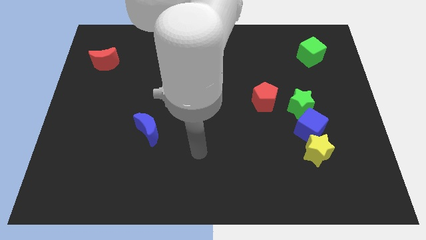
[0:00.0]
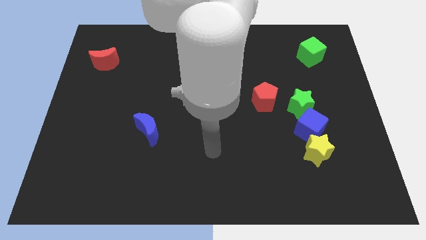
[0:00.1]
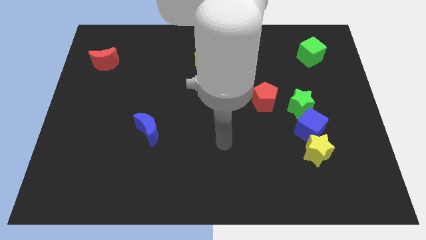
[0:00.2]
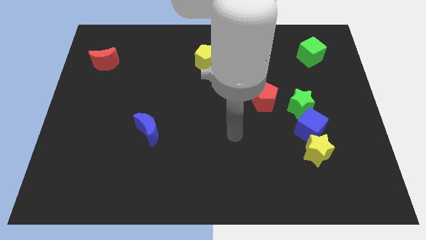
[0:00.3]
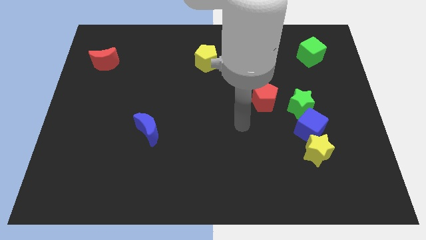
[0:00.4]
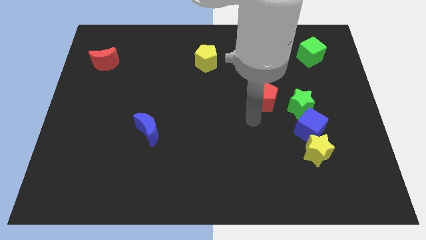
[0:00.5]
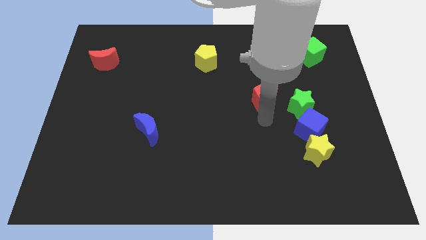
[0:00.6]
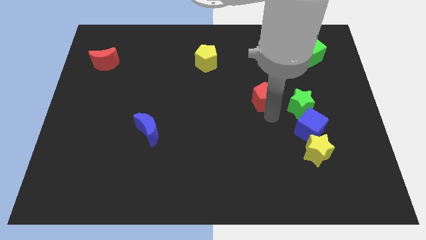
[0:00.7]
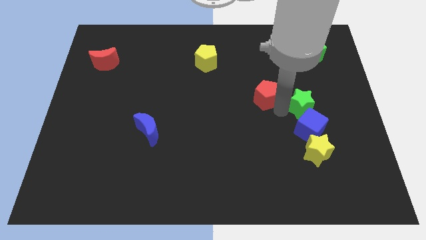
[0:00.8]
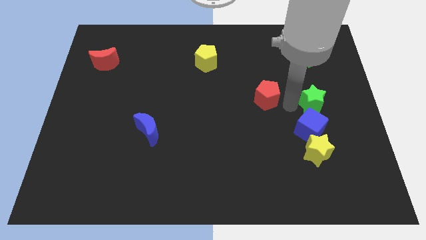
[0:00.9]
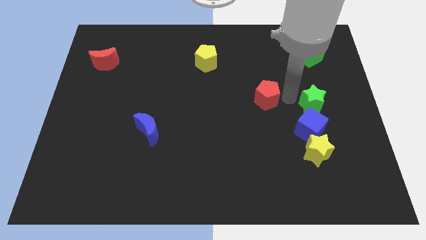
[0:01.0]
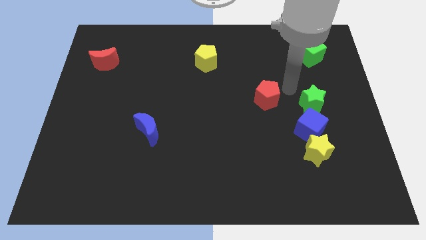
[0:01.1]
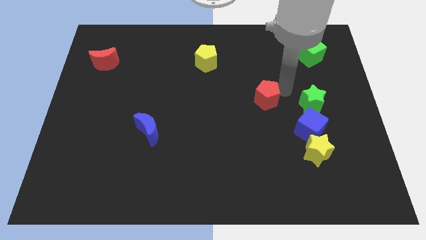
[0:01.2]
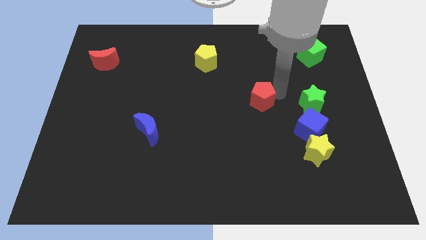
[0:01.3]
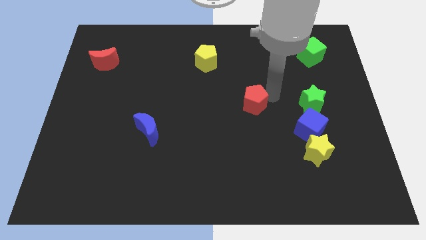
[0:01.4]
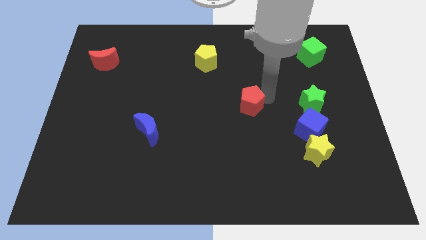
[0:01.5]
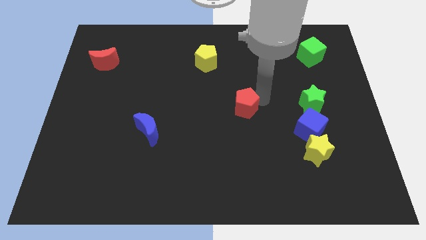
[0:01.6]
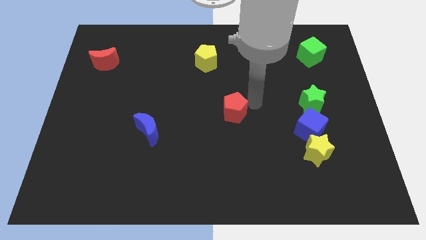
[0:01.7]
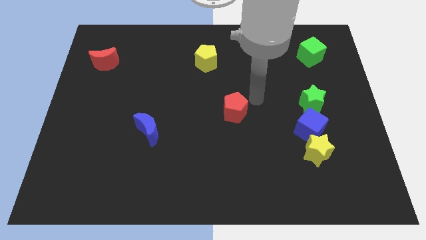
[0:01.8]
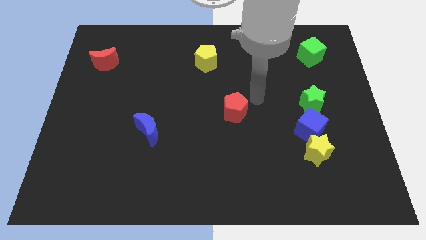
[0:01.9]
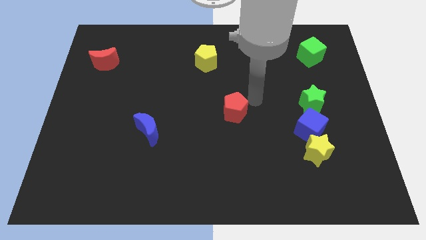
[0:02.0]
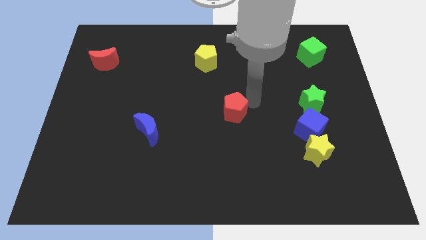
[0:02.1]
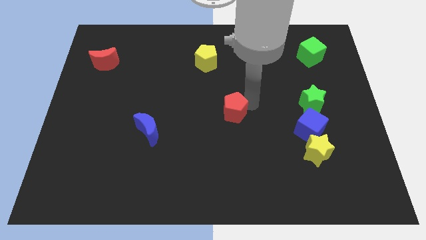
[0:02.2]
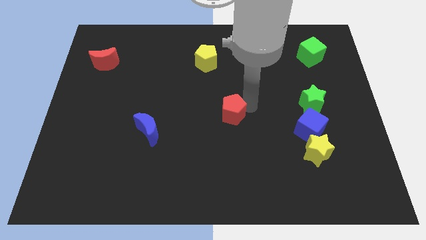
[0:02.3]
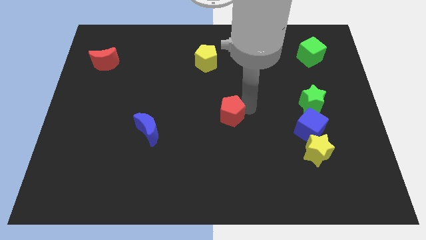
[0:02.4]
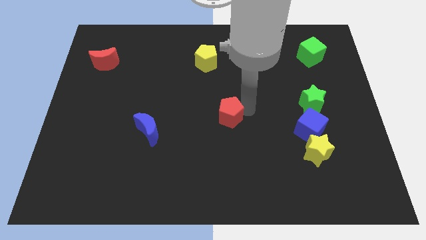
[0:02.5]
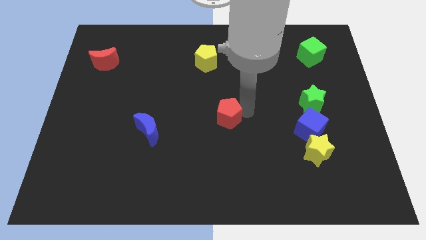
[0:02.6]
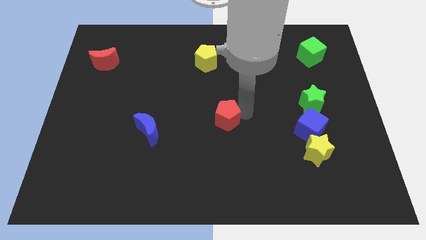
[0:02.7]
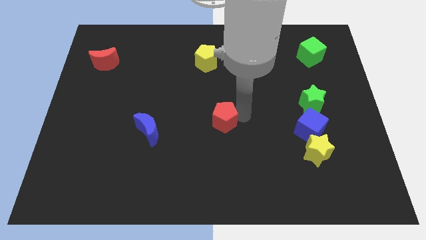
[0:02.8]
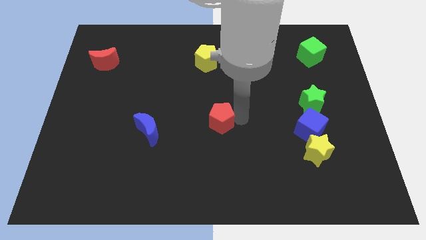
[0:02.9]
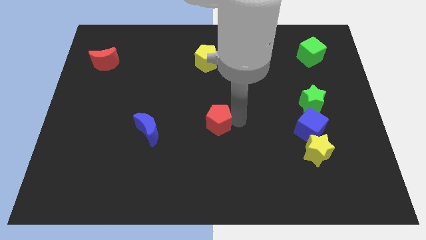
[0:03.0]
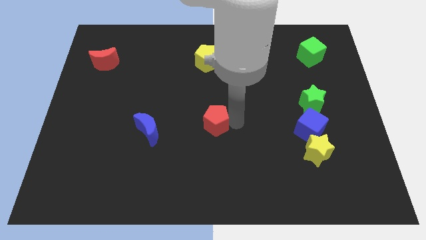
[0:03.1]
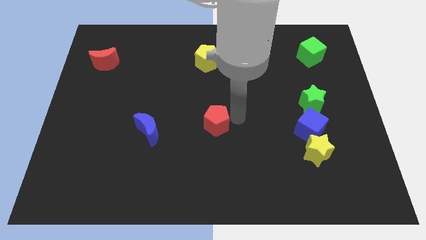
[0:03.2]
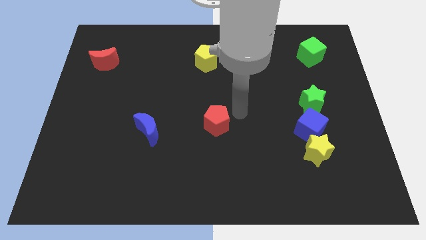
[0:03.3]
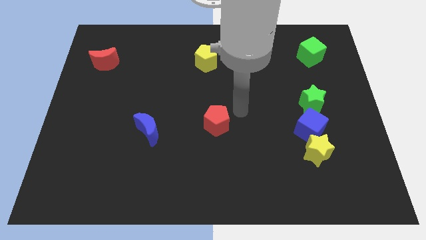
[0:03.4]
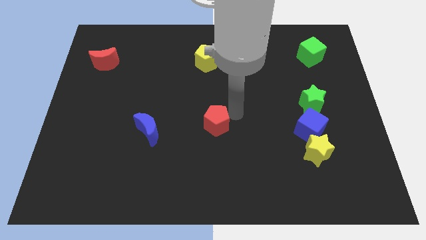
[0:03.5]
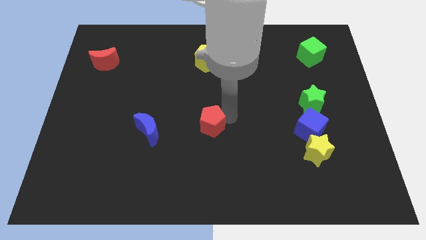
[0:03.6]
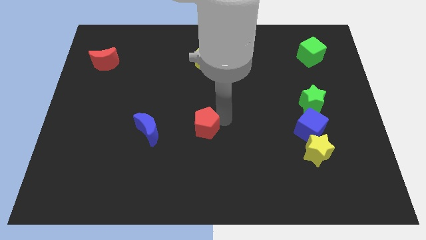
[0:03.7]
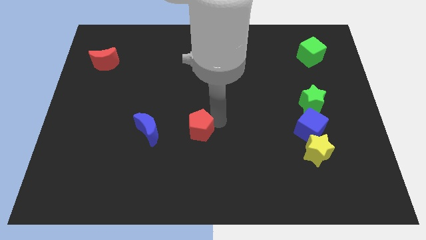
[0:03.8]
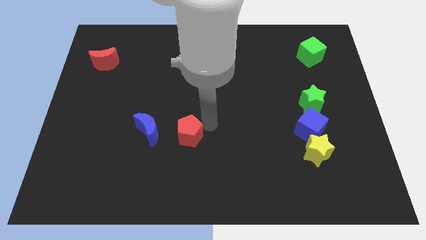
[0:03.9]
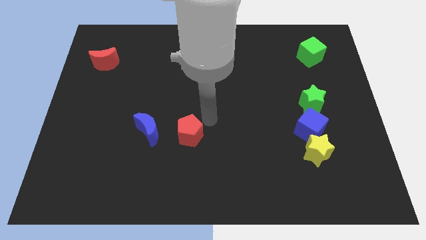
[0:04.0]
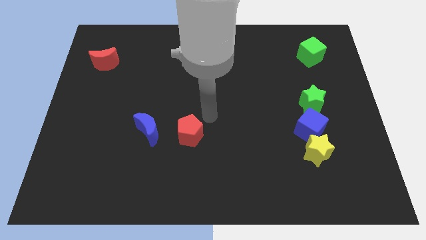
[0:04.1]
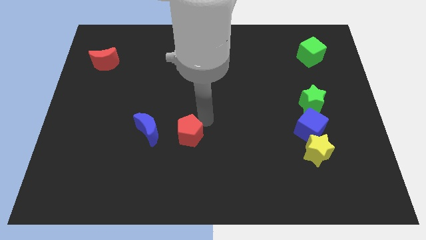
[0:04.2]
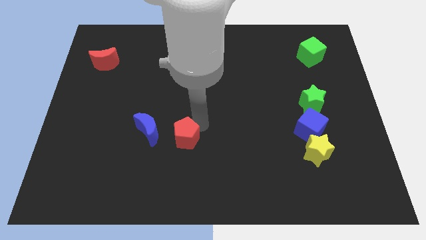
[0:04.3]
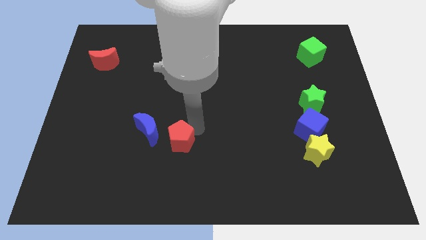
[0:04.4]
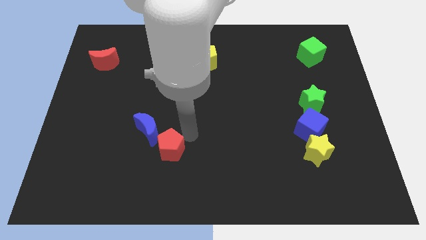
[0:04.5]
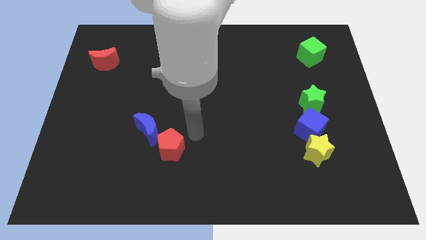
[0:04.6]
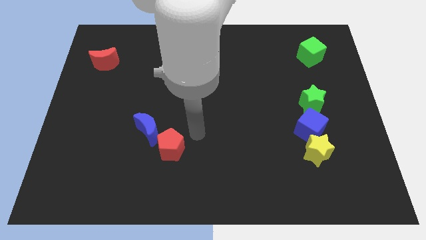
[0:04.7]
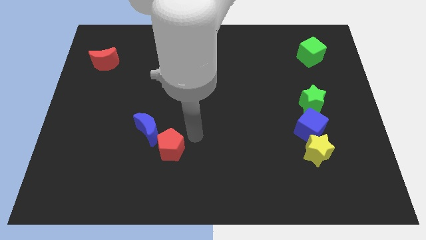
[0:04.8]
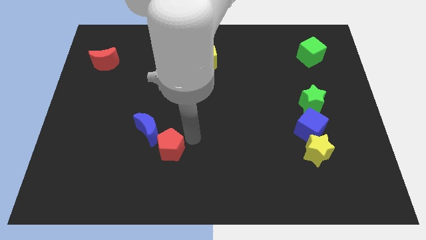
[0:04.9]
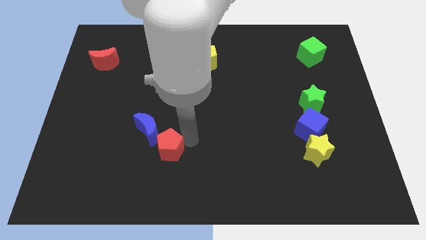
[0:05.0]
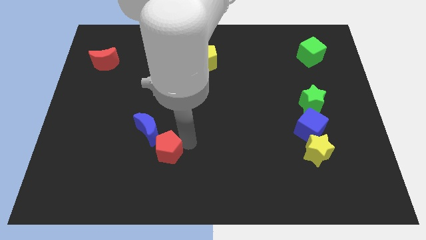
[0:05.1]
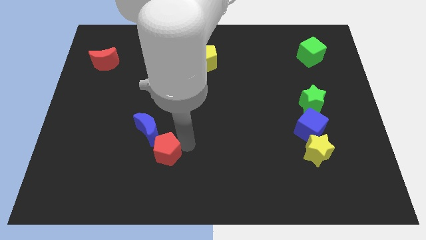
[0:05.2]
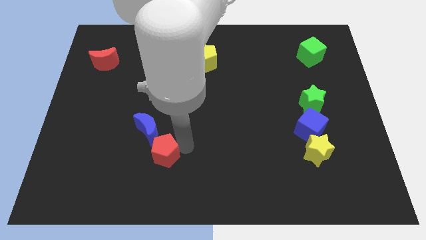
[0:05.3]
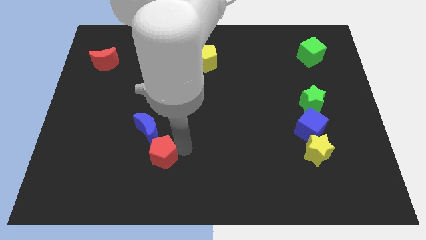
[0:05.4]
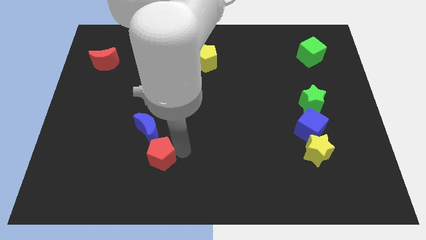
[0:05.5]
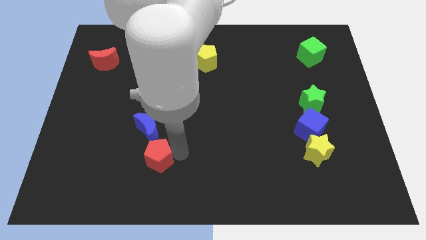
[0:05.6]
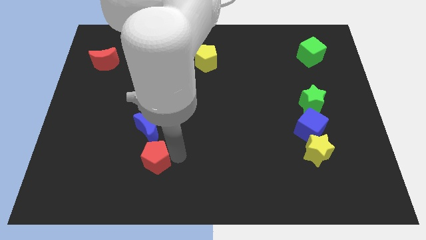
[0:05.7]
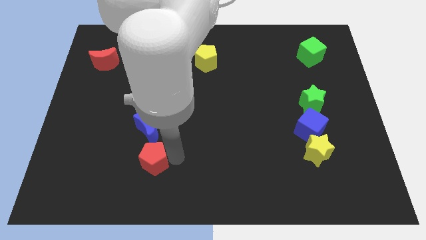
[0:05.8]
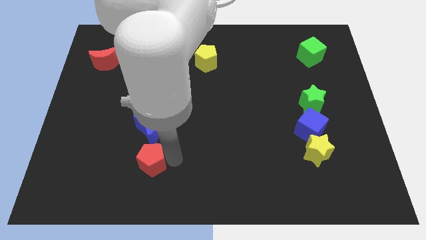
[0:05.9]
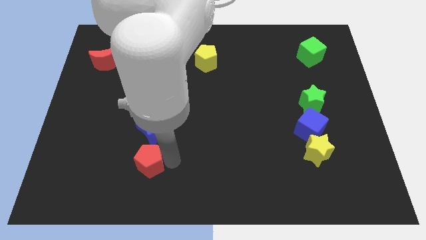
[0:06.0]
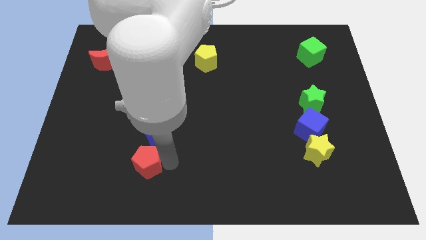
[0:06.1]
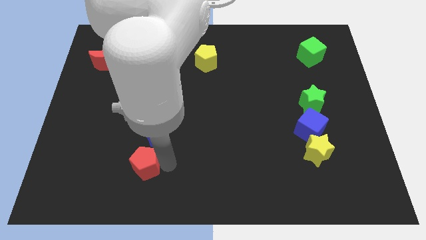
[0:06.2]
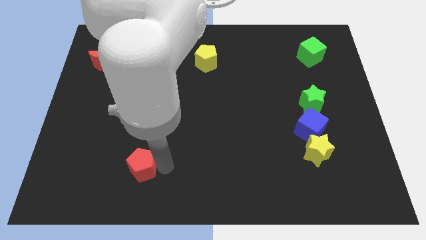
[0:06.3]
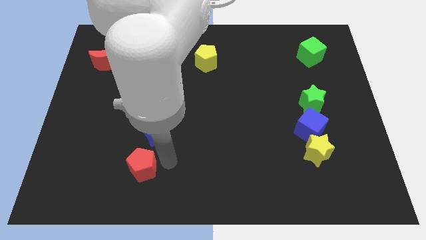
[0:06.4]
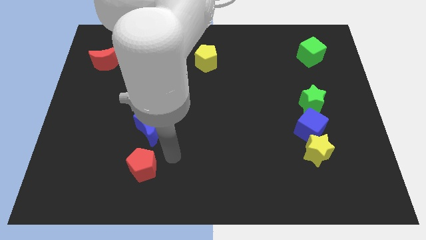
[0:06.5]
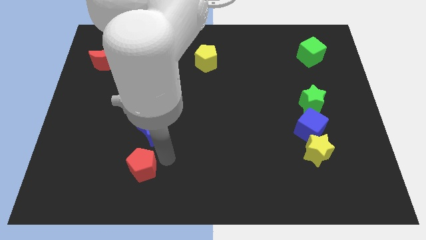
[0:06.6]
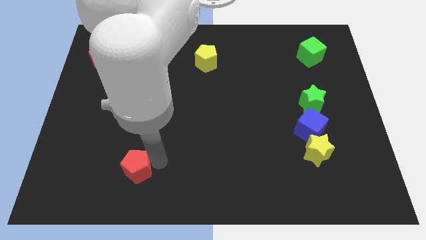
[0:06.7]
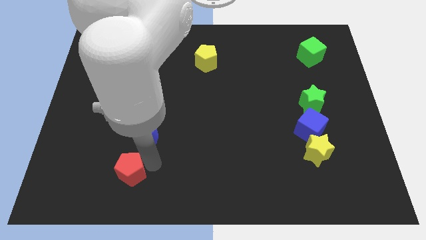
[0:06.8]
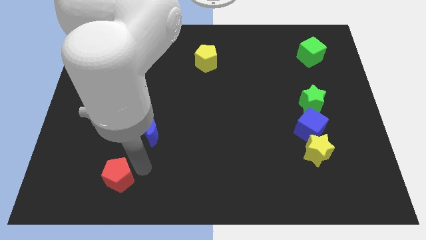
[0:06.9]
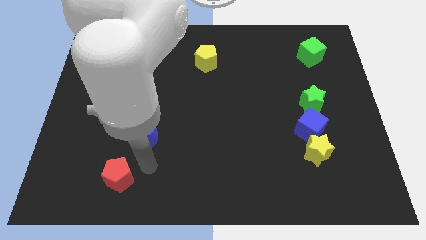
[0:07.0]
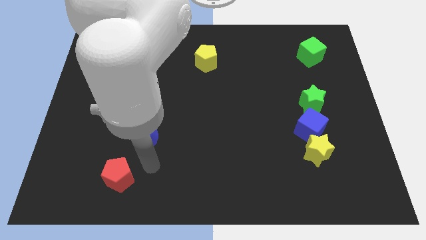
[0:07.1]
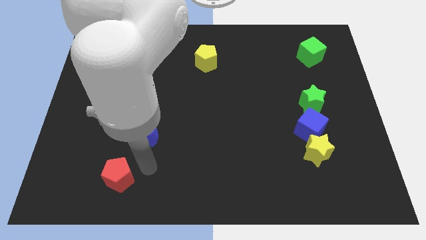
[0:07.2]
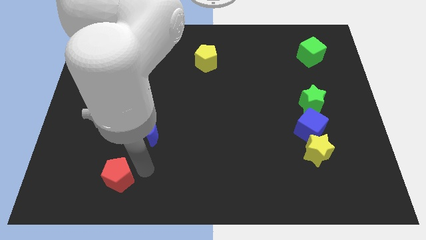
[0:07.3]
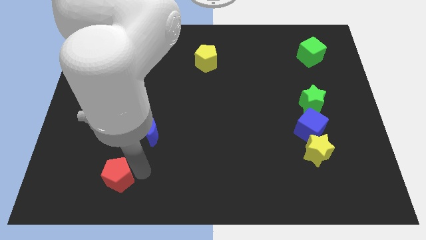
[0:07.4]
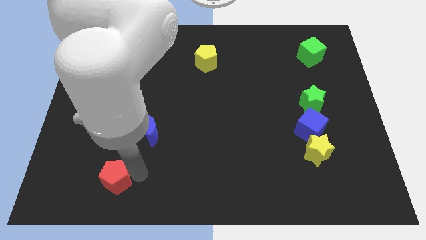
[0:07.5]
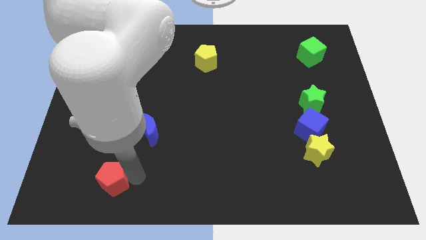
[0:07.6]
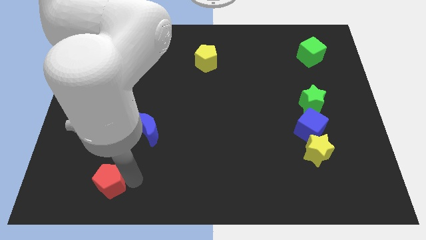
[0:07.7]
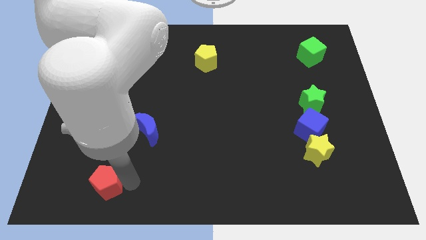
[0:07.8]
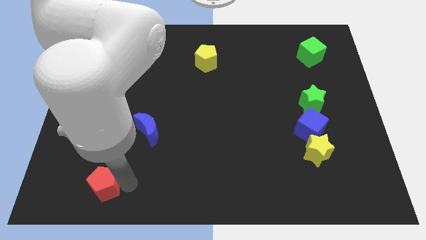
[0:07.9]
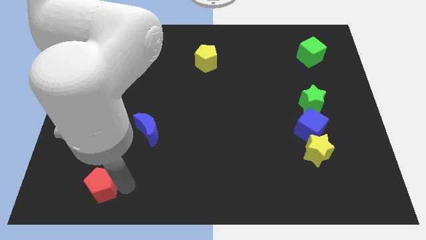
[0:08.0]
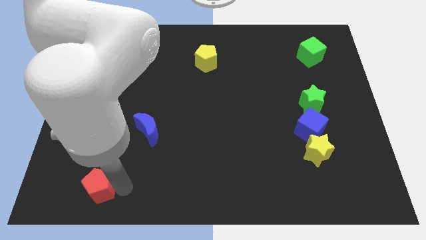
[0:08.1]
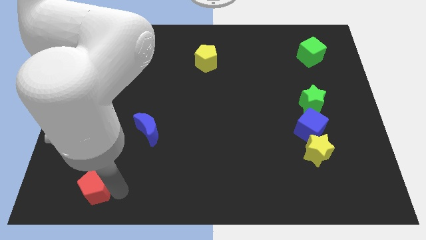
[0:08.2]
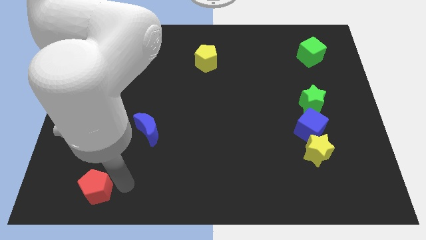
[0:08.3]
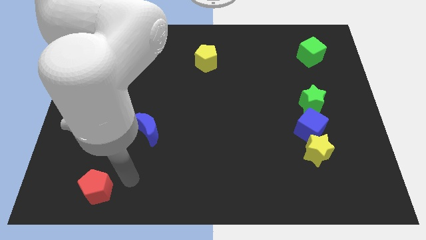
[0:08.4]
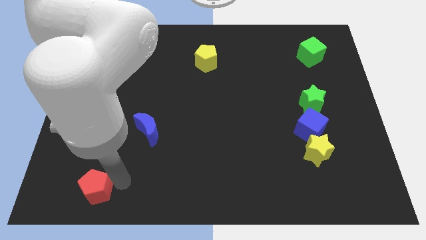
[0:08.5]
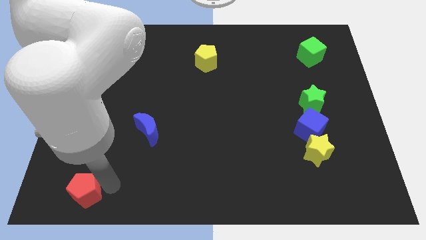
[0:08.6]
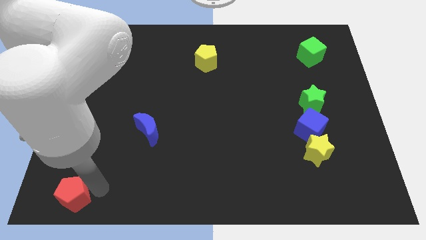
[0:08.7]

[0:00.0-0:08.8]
move the red pentagon to the bottom left corner
